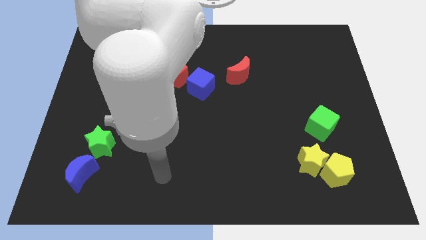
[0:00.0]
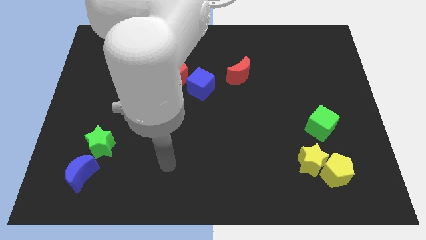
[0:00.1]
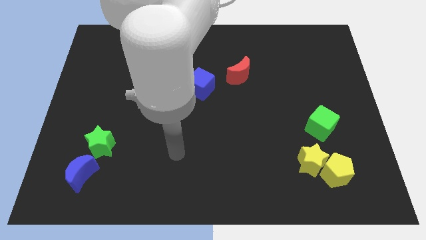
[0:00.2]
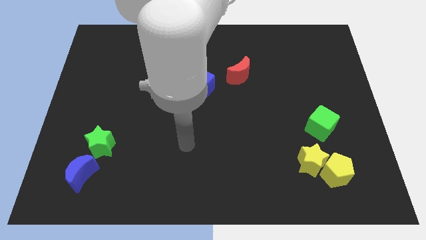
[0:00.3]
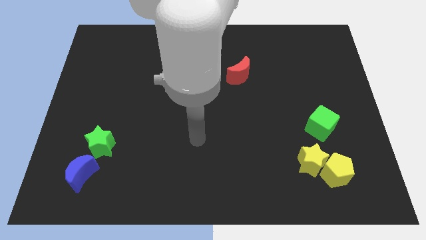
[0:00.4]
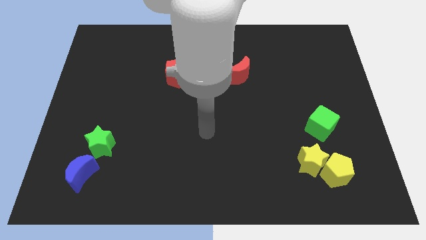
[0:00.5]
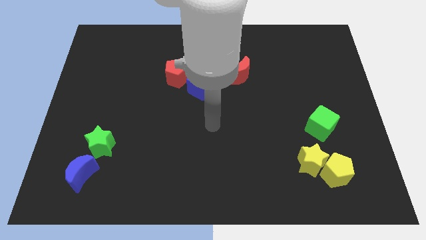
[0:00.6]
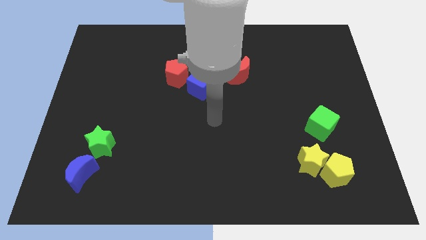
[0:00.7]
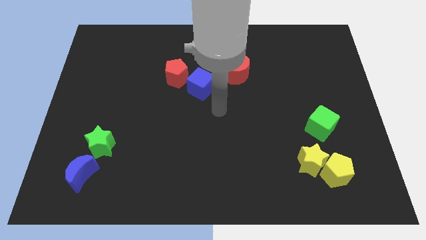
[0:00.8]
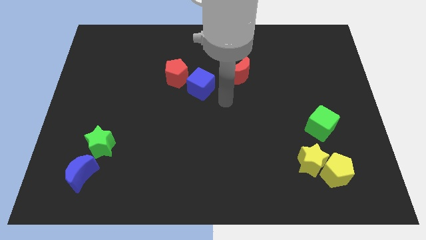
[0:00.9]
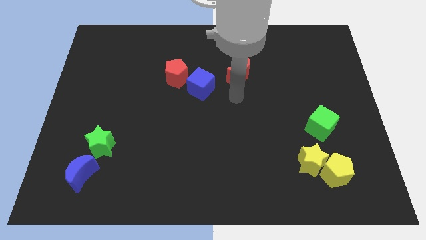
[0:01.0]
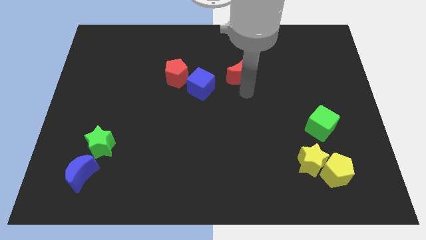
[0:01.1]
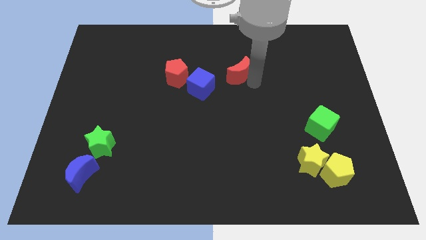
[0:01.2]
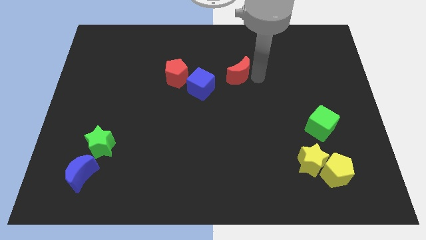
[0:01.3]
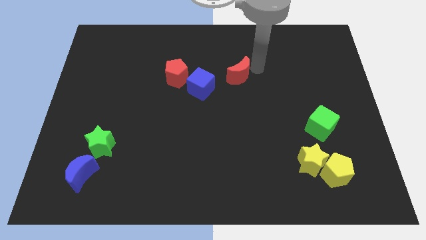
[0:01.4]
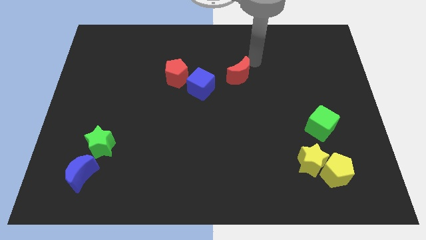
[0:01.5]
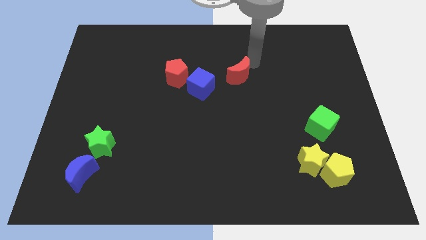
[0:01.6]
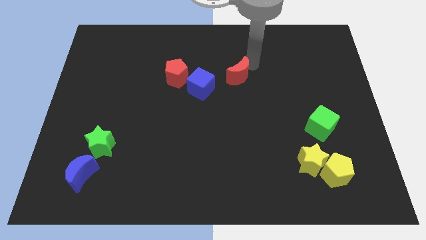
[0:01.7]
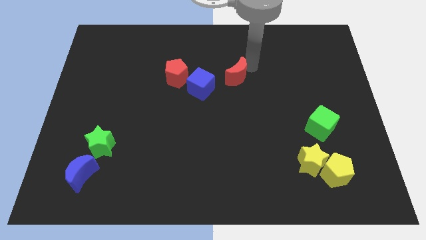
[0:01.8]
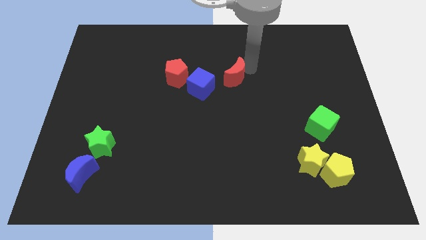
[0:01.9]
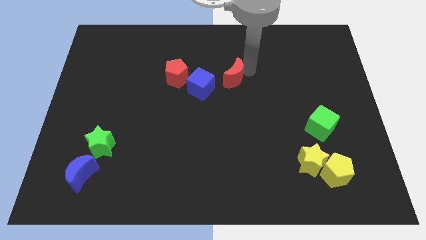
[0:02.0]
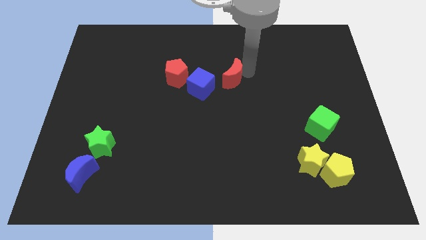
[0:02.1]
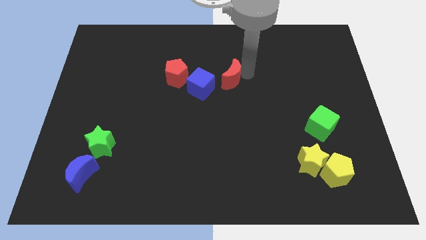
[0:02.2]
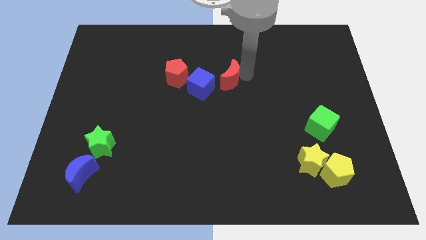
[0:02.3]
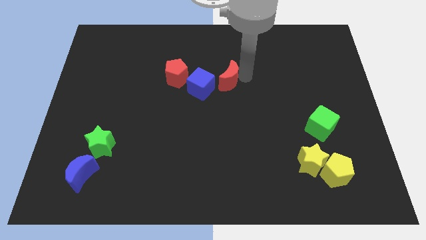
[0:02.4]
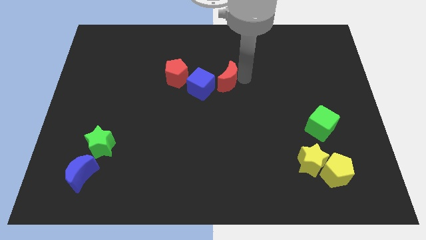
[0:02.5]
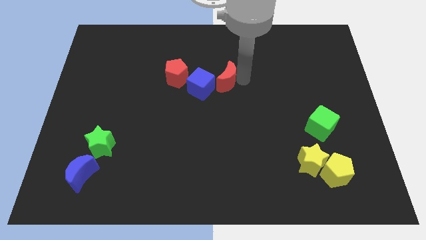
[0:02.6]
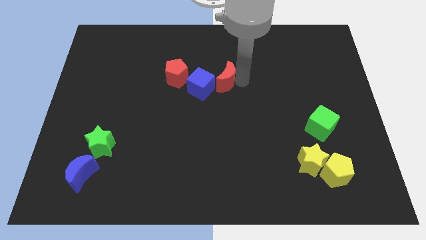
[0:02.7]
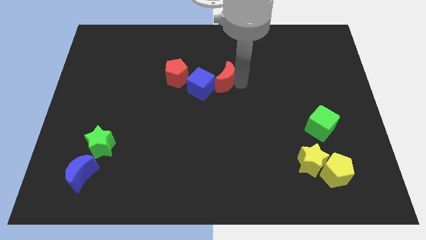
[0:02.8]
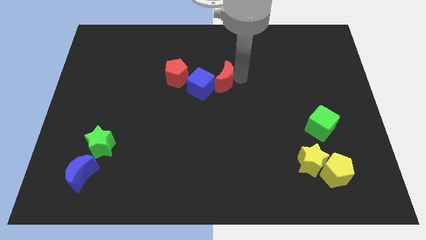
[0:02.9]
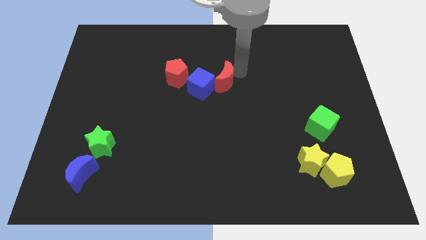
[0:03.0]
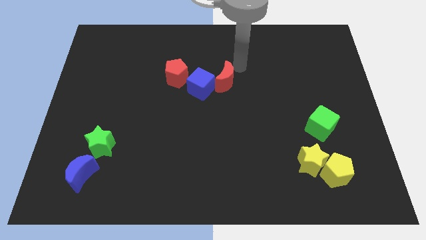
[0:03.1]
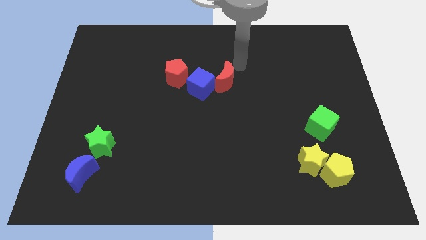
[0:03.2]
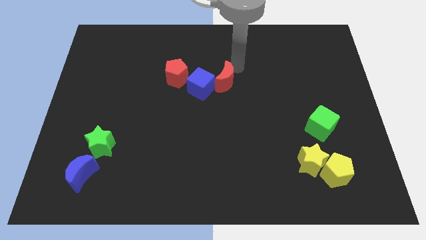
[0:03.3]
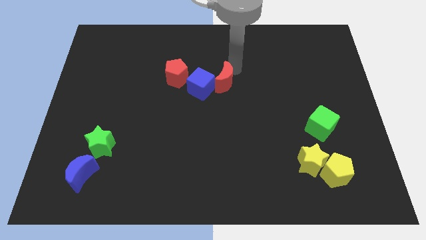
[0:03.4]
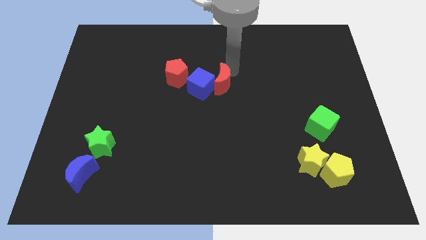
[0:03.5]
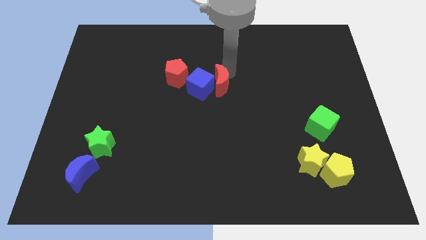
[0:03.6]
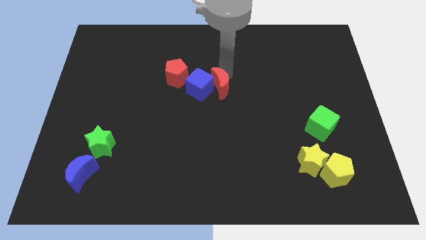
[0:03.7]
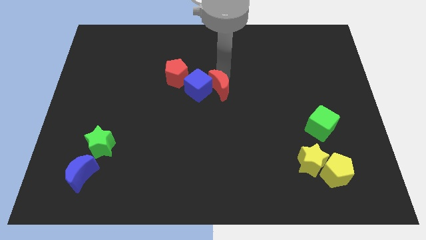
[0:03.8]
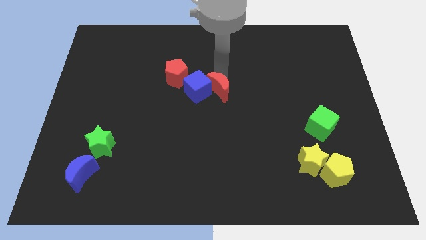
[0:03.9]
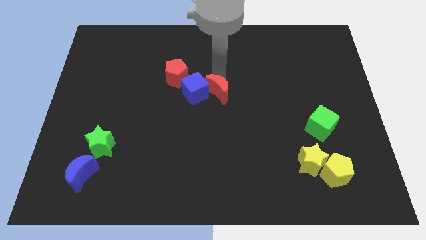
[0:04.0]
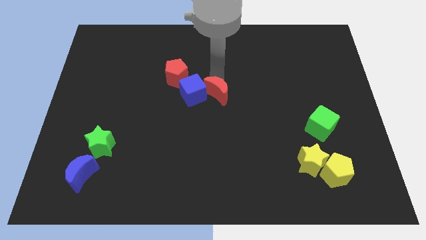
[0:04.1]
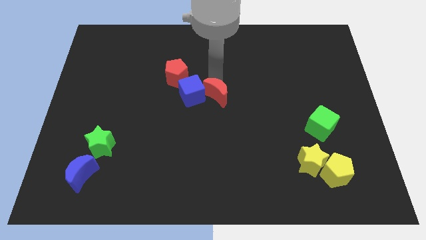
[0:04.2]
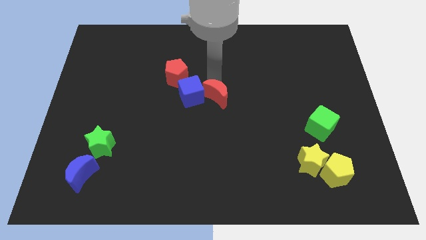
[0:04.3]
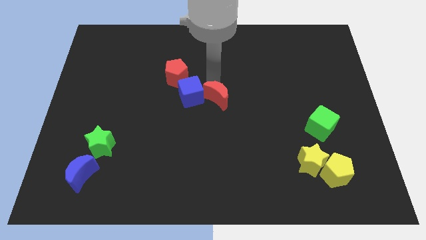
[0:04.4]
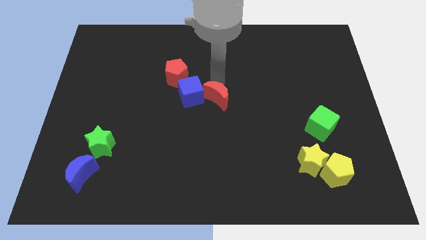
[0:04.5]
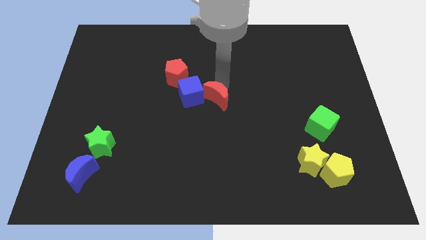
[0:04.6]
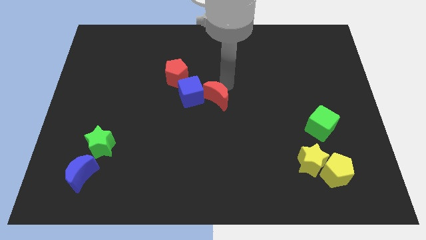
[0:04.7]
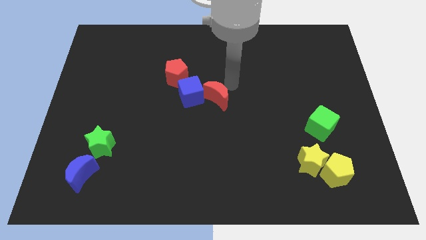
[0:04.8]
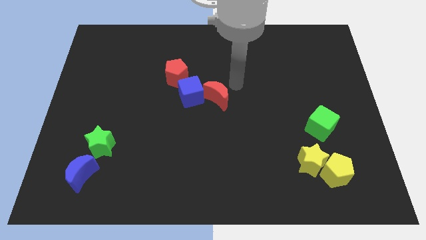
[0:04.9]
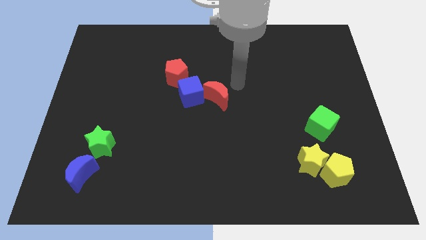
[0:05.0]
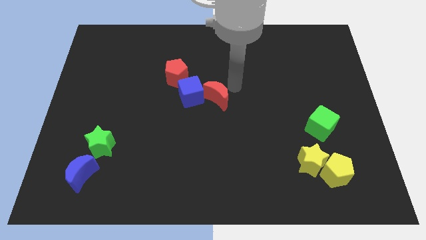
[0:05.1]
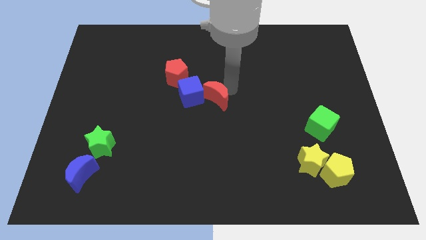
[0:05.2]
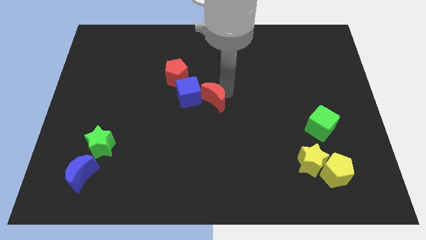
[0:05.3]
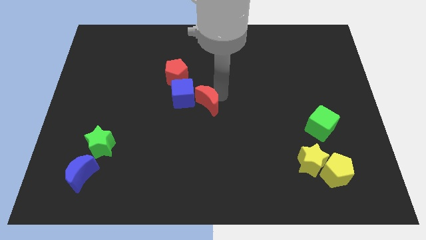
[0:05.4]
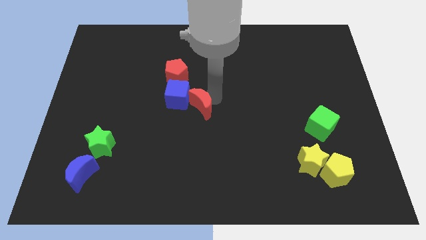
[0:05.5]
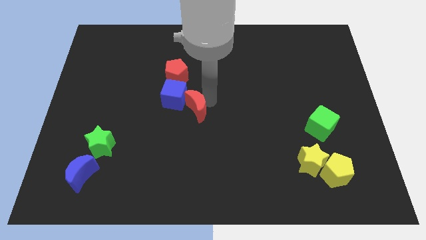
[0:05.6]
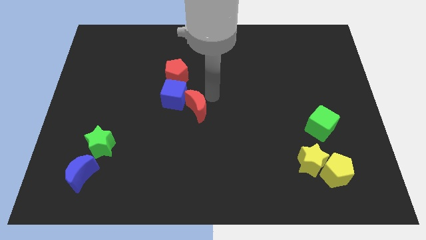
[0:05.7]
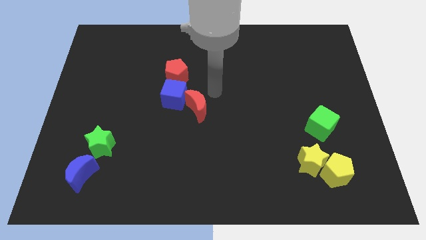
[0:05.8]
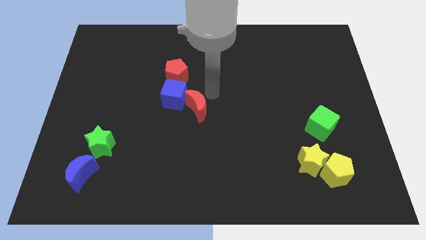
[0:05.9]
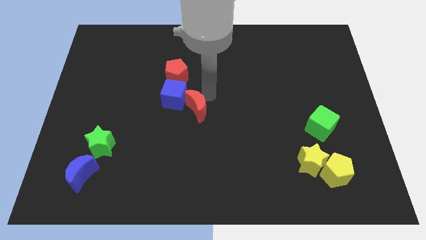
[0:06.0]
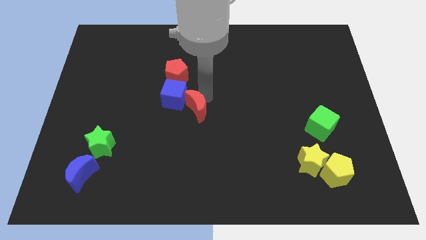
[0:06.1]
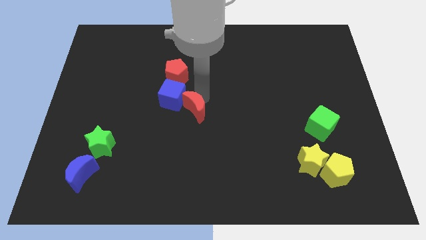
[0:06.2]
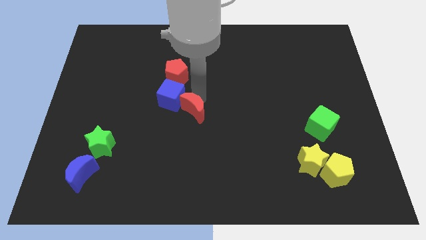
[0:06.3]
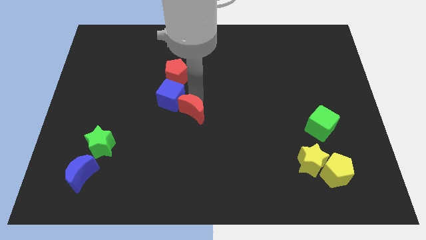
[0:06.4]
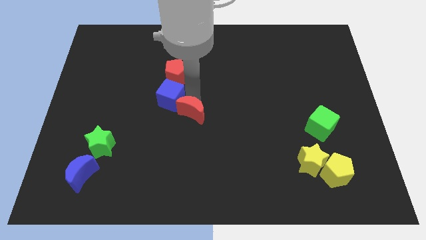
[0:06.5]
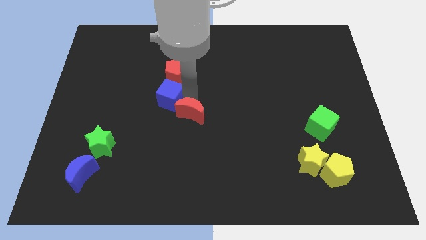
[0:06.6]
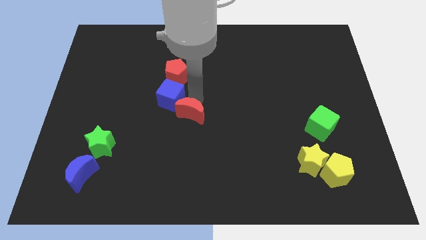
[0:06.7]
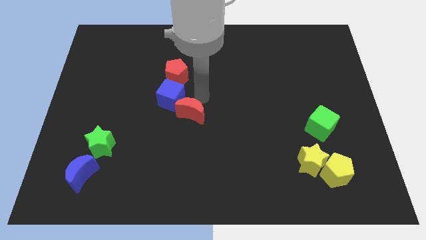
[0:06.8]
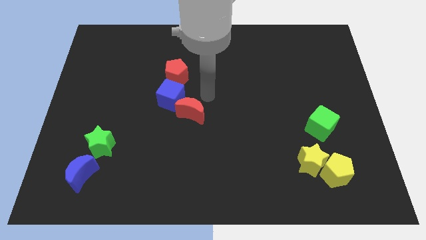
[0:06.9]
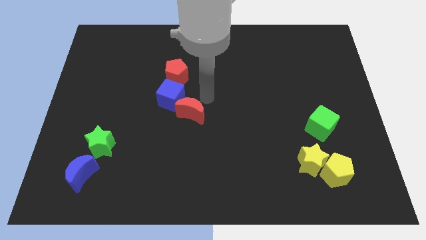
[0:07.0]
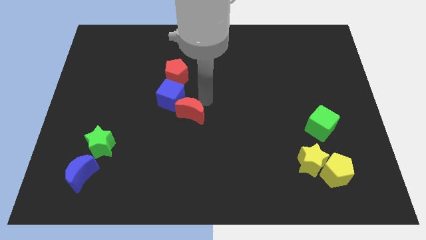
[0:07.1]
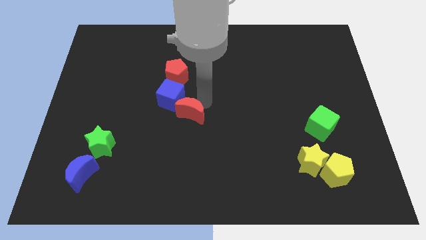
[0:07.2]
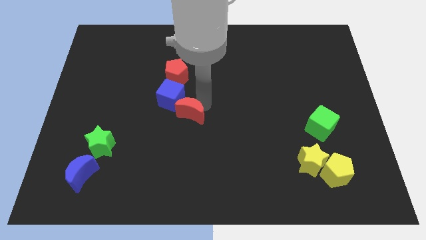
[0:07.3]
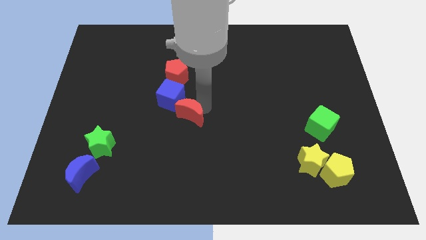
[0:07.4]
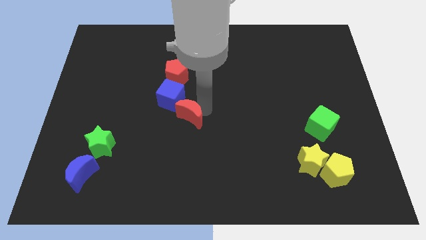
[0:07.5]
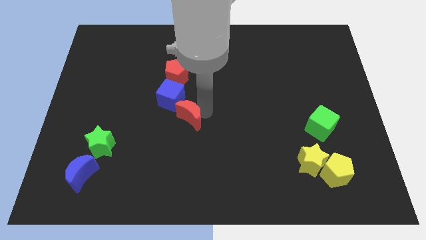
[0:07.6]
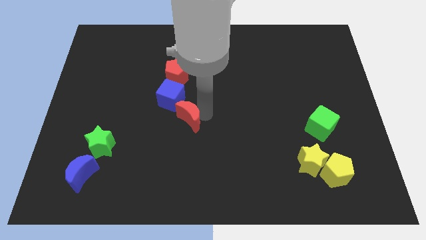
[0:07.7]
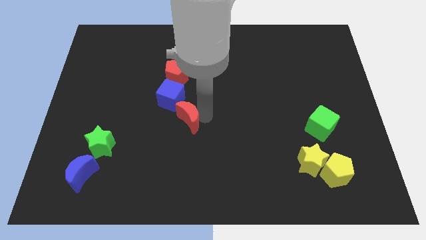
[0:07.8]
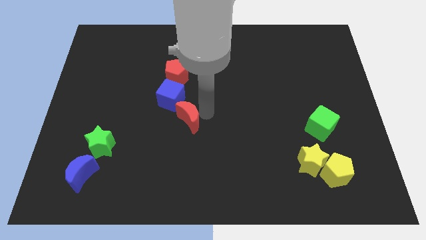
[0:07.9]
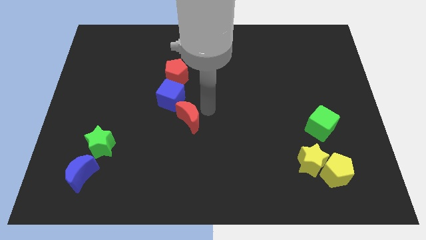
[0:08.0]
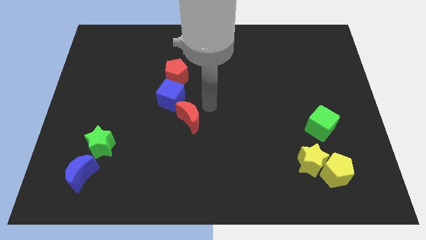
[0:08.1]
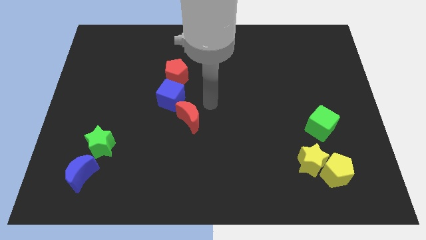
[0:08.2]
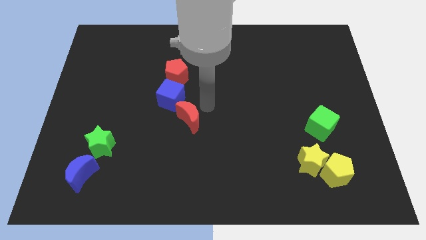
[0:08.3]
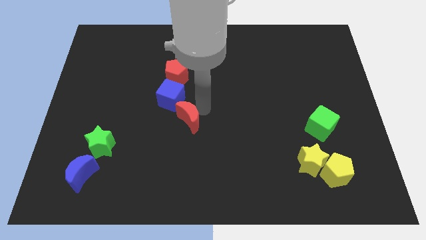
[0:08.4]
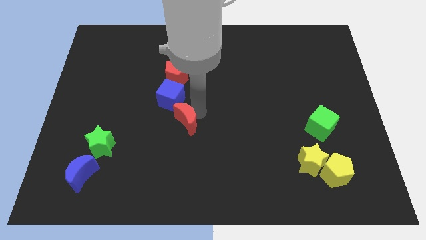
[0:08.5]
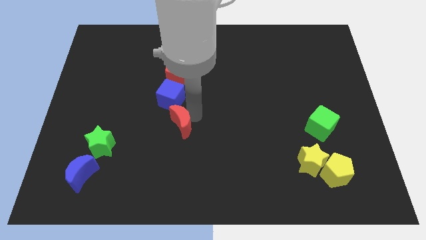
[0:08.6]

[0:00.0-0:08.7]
slide the red moon diagonally downwards and left
